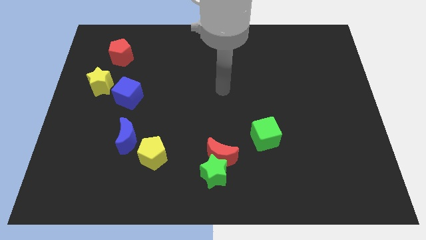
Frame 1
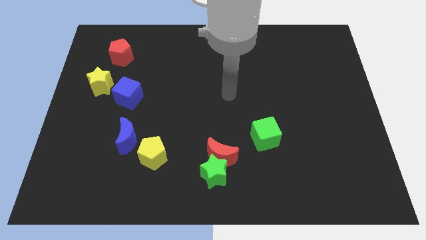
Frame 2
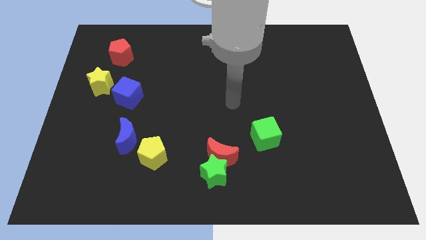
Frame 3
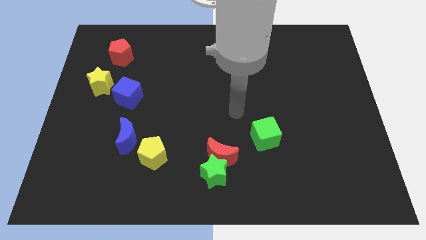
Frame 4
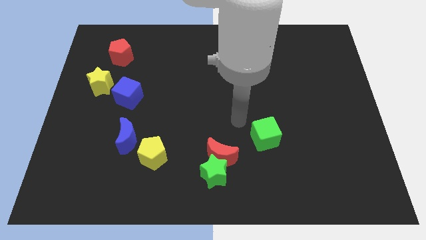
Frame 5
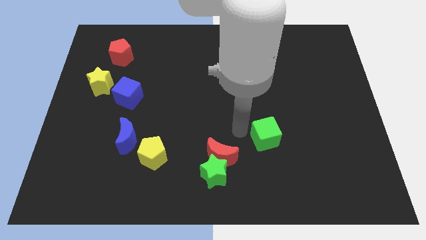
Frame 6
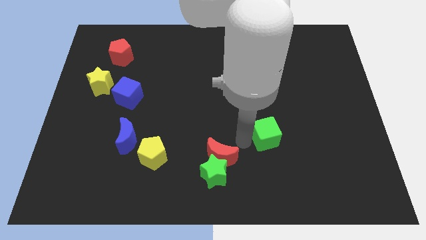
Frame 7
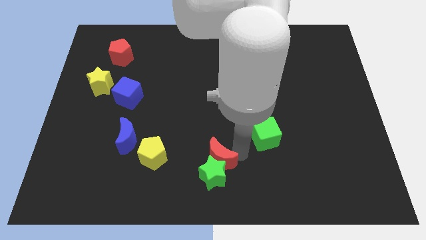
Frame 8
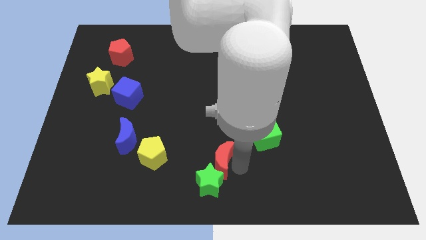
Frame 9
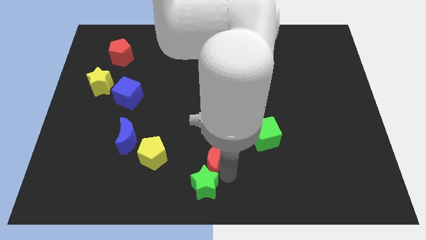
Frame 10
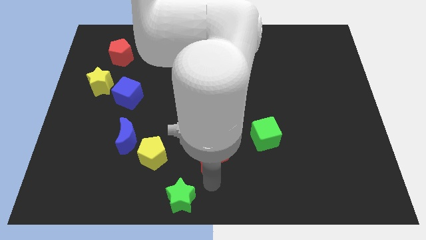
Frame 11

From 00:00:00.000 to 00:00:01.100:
separate the red moon from the green star

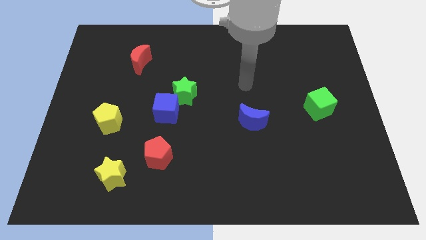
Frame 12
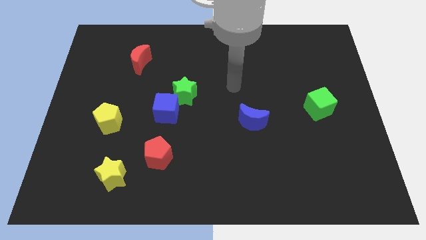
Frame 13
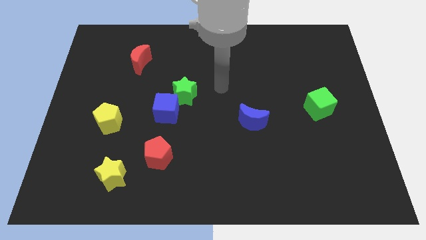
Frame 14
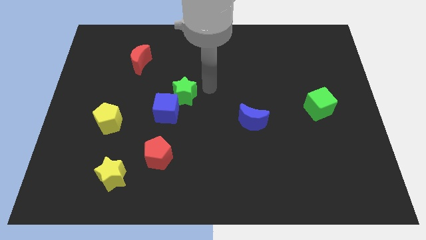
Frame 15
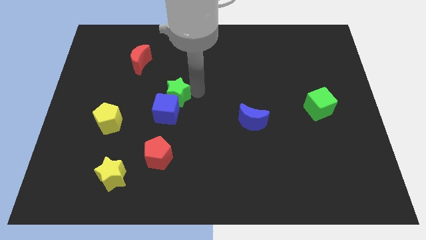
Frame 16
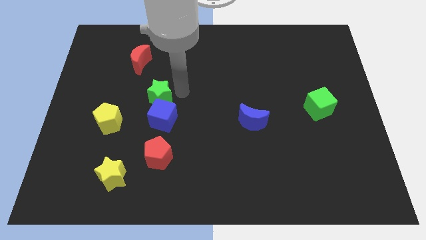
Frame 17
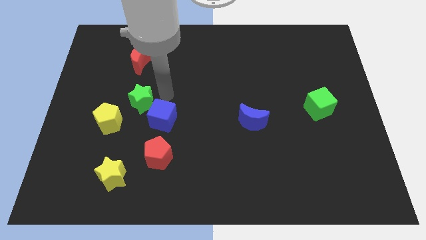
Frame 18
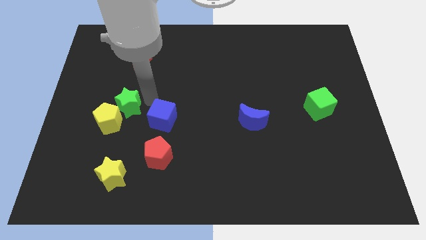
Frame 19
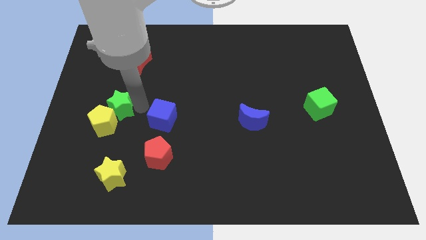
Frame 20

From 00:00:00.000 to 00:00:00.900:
pull the blue cube apart from the green star

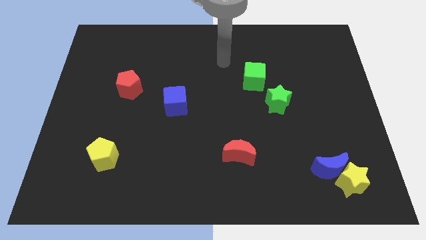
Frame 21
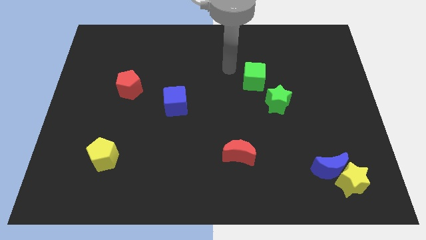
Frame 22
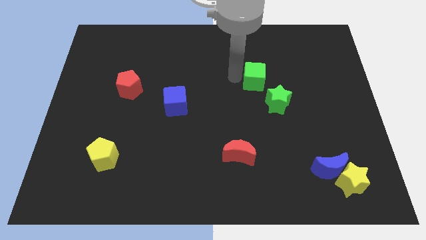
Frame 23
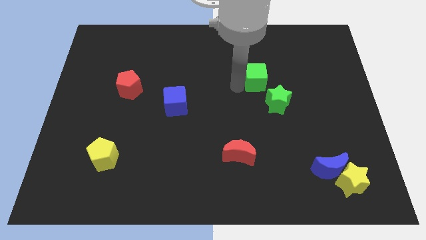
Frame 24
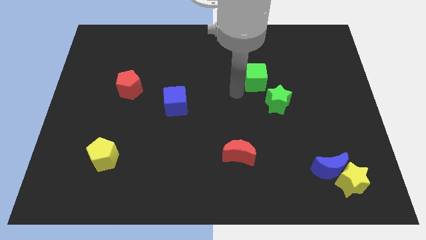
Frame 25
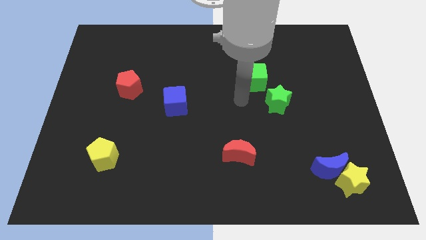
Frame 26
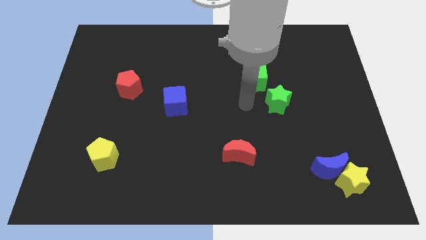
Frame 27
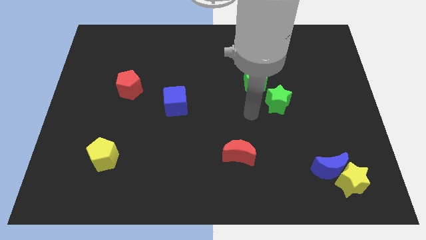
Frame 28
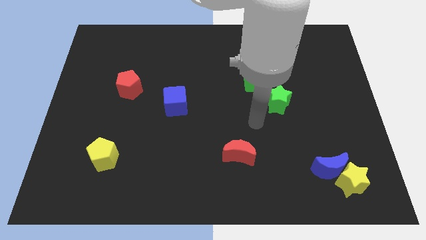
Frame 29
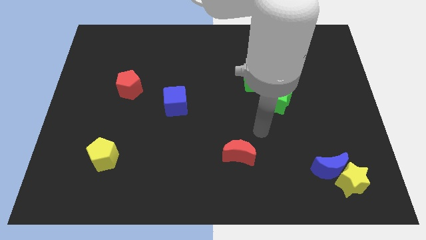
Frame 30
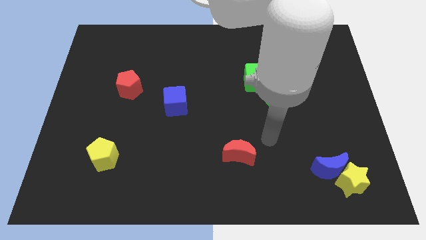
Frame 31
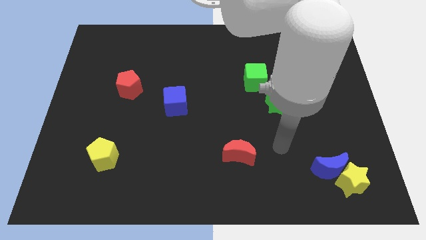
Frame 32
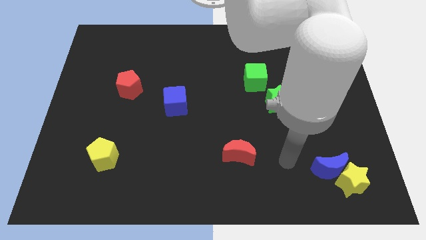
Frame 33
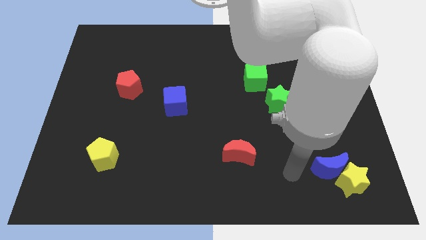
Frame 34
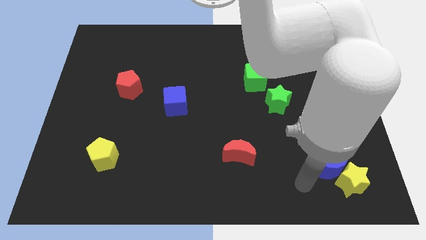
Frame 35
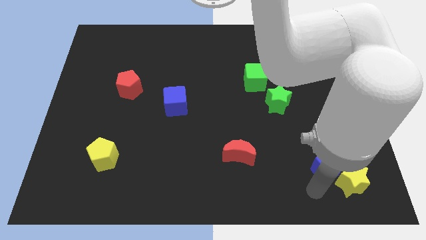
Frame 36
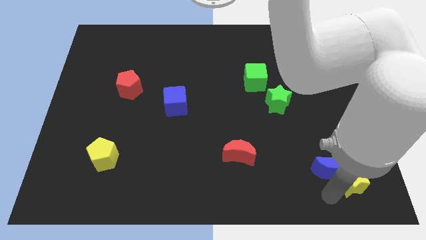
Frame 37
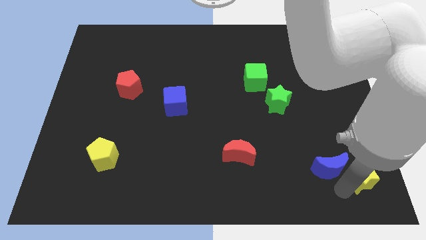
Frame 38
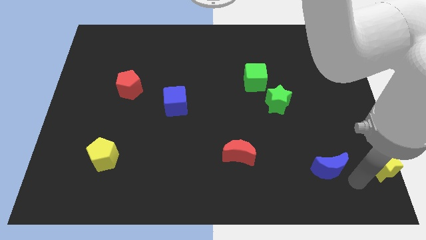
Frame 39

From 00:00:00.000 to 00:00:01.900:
pull the blue moon apart from the yellow star

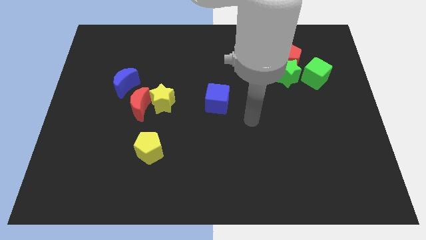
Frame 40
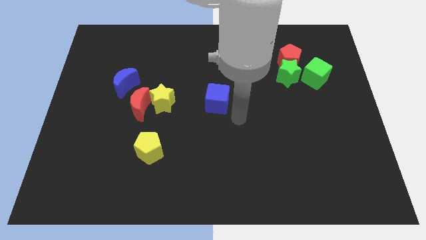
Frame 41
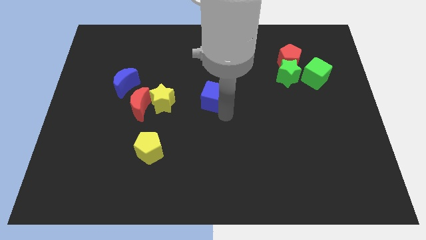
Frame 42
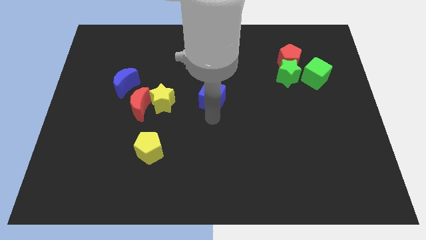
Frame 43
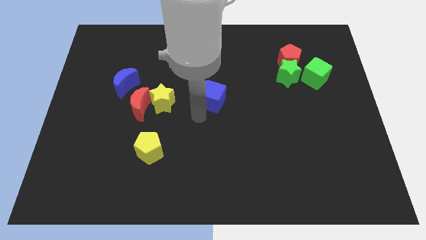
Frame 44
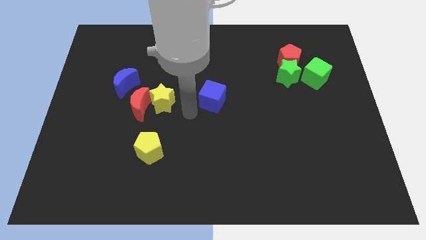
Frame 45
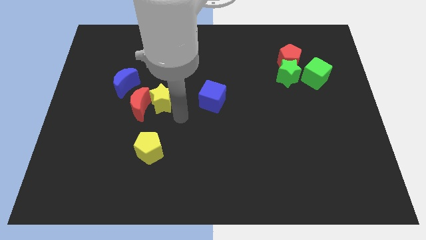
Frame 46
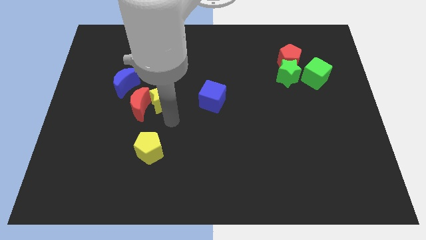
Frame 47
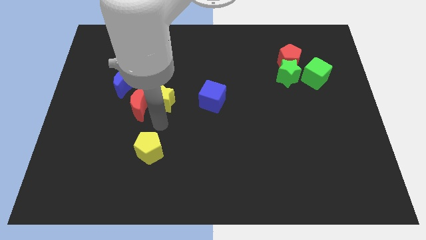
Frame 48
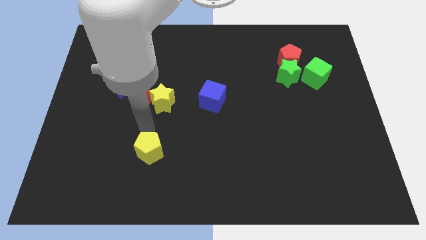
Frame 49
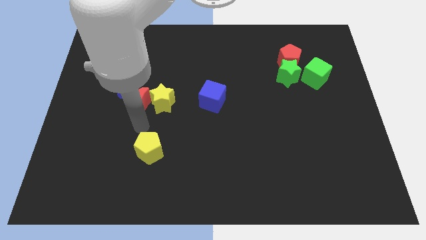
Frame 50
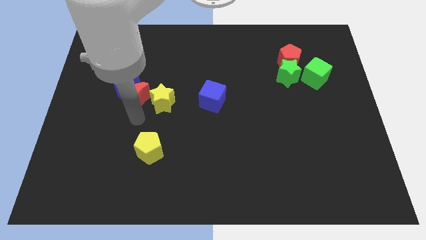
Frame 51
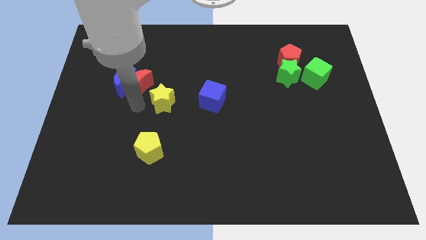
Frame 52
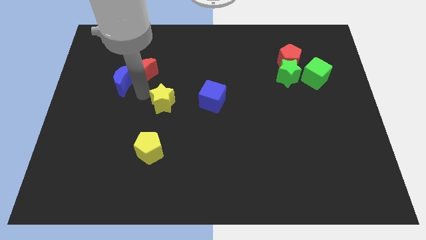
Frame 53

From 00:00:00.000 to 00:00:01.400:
move the yellow star away from the red moon

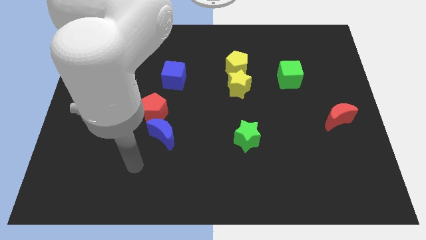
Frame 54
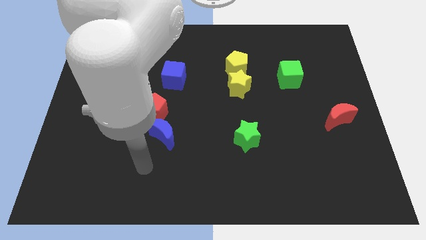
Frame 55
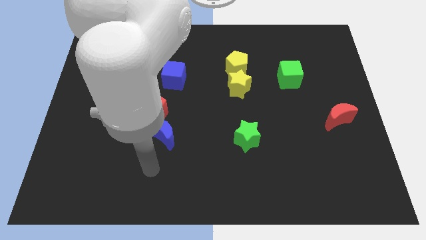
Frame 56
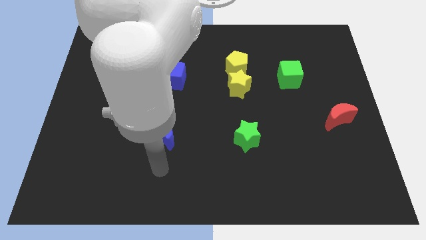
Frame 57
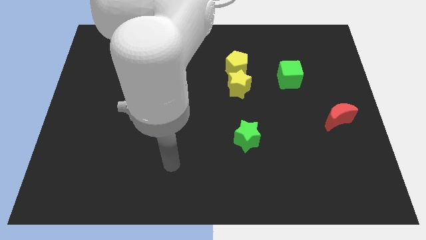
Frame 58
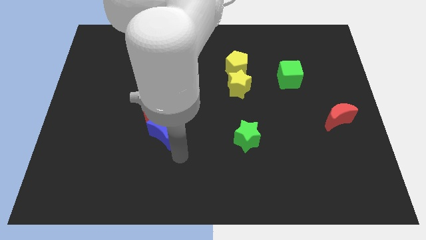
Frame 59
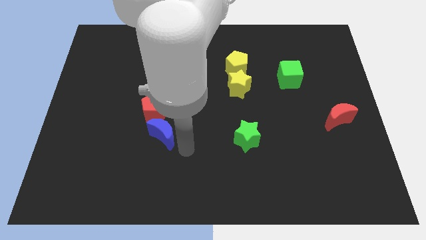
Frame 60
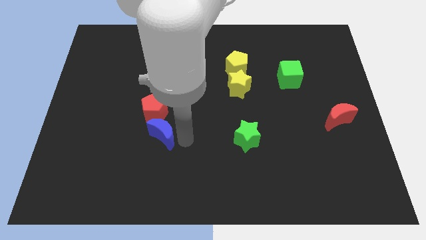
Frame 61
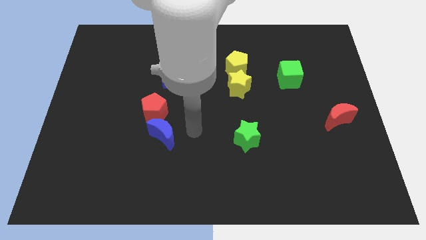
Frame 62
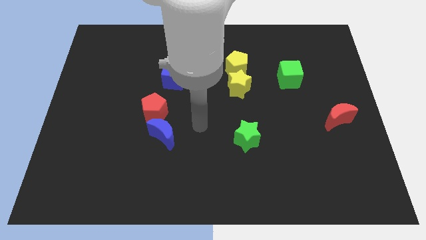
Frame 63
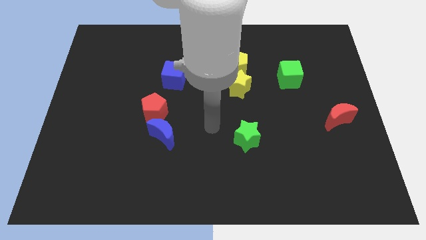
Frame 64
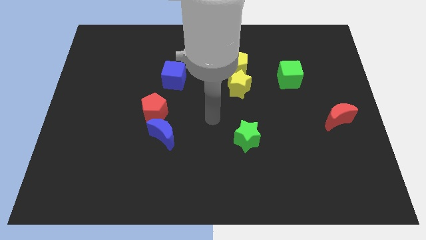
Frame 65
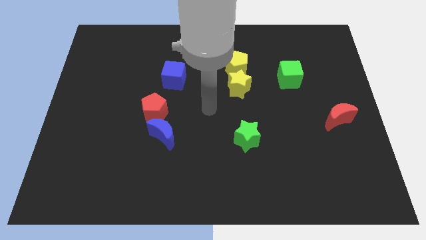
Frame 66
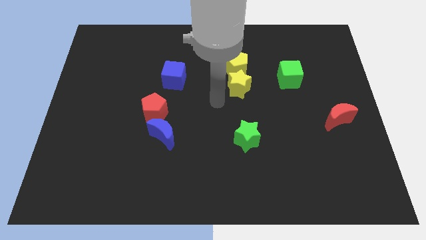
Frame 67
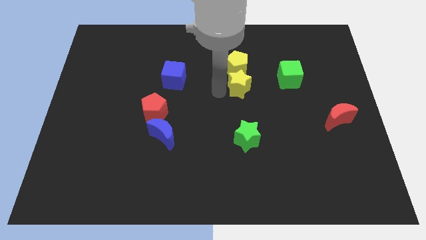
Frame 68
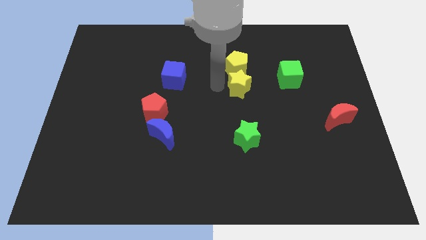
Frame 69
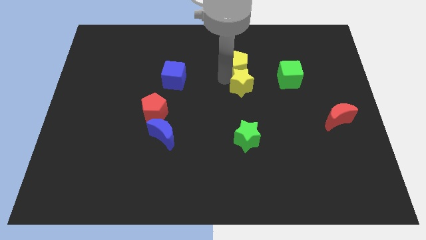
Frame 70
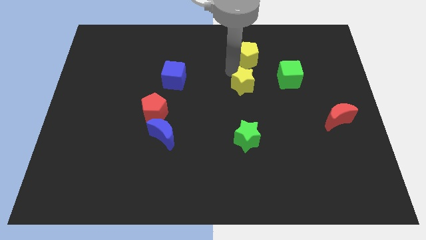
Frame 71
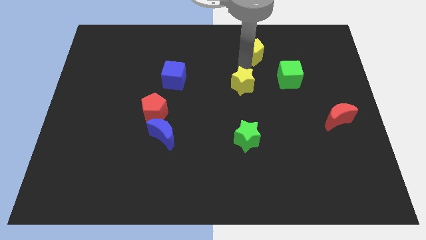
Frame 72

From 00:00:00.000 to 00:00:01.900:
separate the yellow star from the yellow pentagon

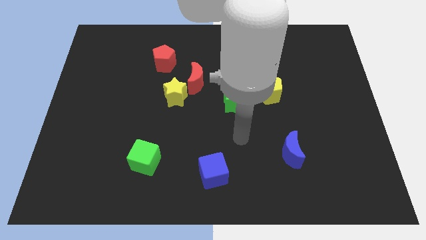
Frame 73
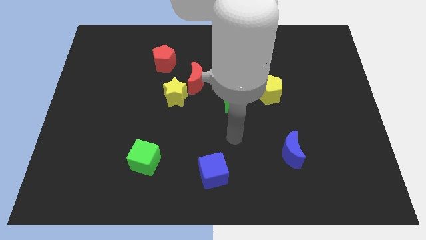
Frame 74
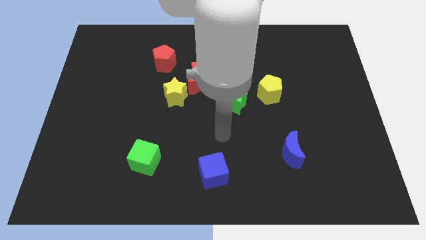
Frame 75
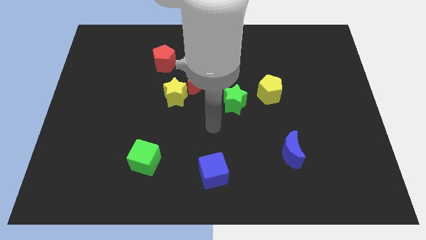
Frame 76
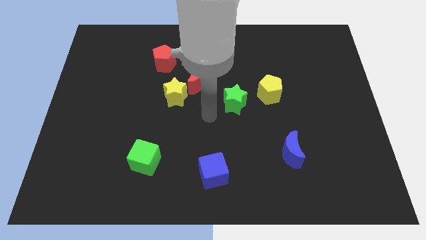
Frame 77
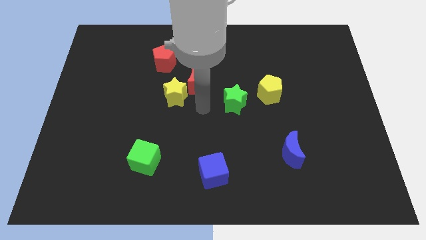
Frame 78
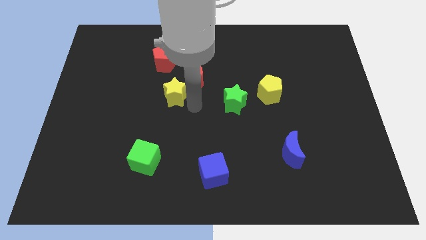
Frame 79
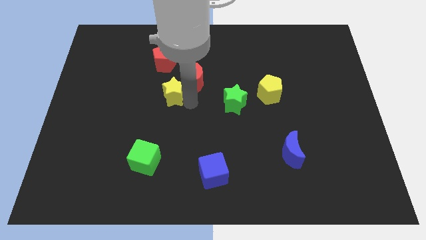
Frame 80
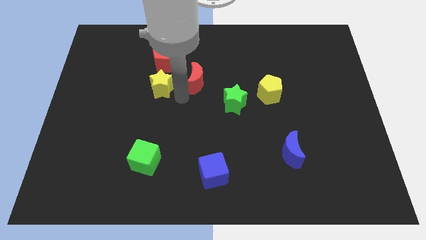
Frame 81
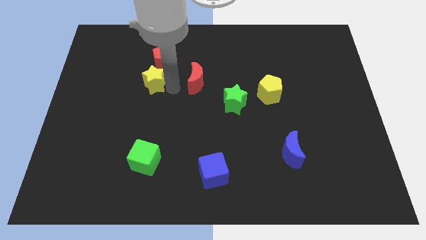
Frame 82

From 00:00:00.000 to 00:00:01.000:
separate the red moon from the yellow star

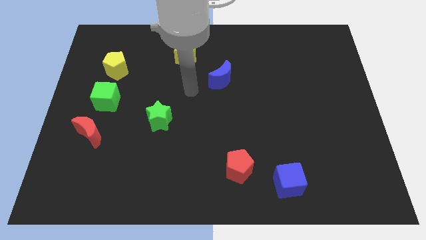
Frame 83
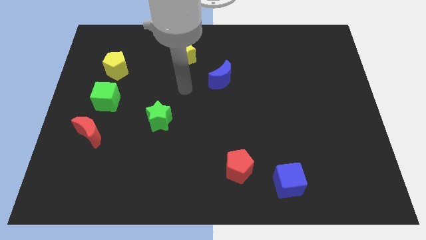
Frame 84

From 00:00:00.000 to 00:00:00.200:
move the red moon away from the green cube

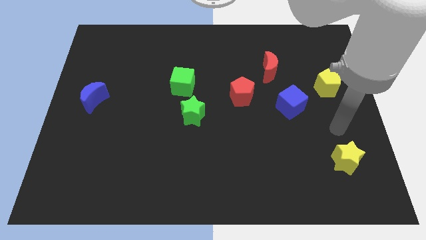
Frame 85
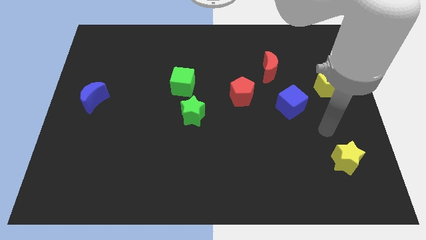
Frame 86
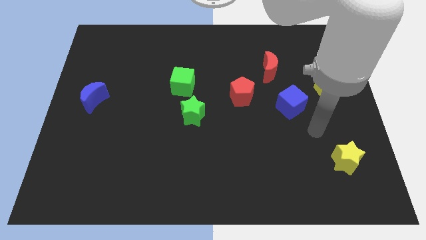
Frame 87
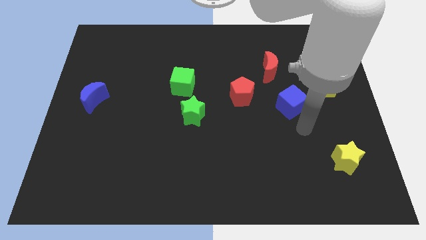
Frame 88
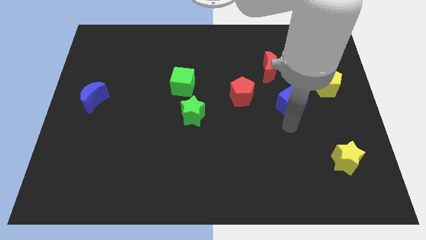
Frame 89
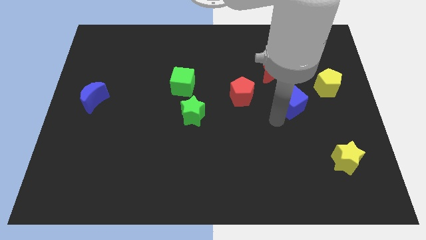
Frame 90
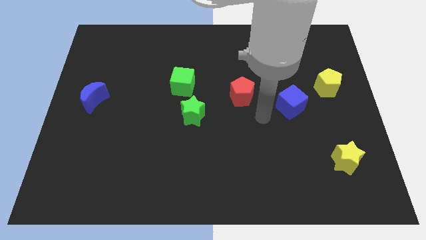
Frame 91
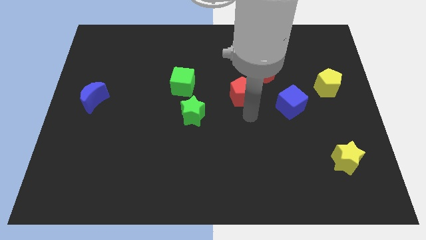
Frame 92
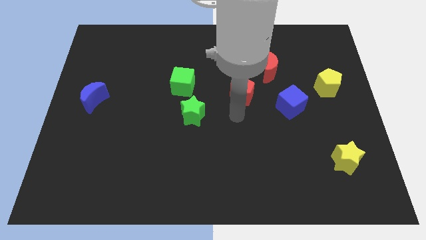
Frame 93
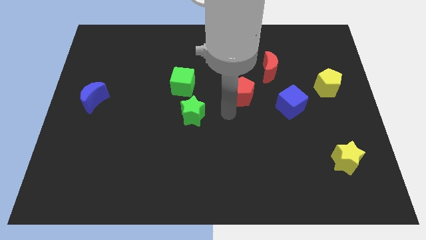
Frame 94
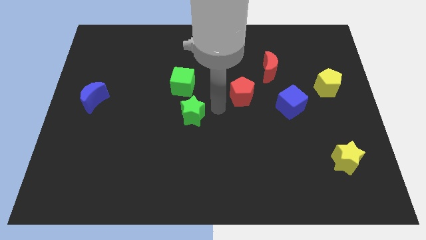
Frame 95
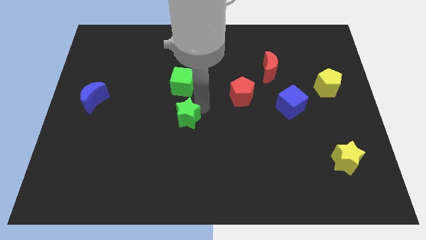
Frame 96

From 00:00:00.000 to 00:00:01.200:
pull the green cube apart from the green star
